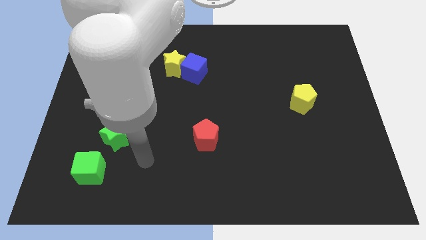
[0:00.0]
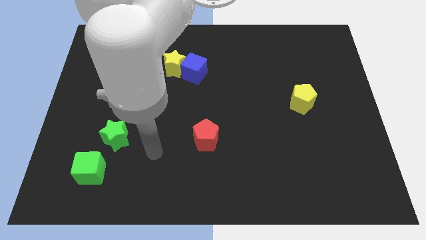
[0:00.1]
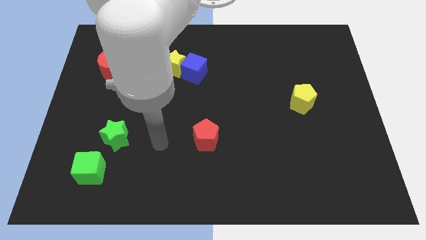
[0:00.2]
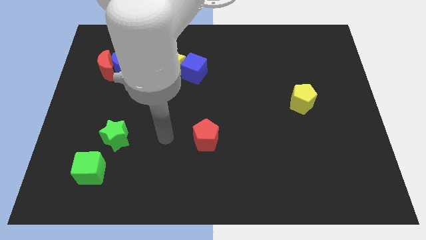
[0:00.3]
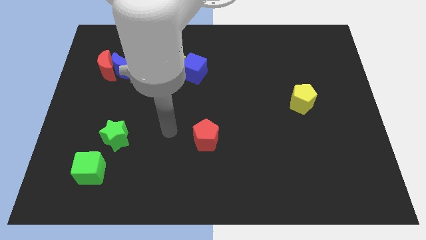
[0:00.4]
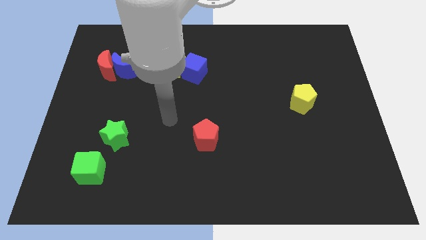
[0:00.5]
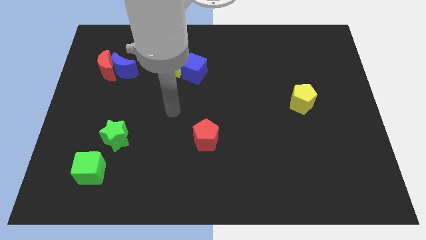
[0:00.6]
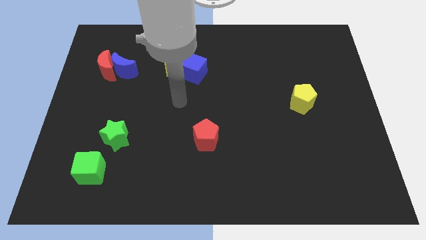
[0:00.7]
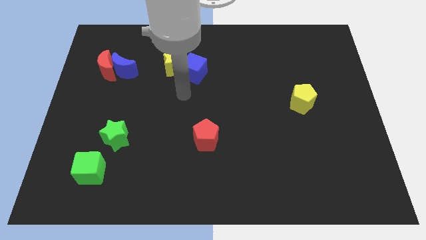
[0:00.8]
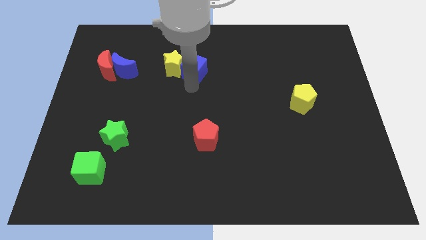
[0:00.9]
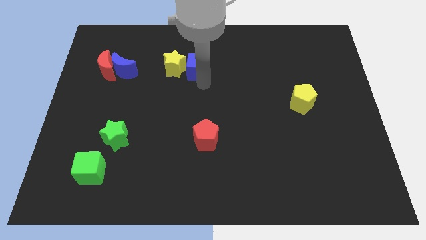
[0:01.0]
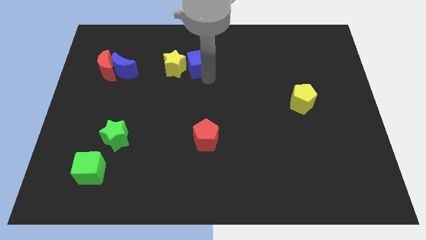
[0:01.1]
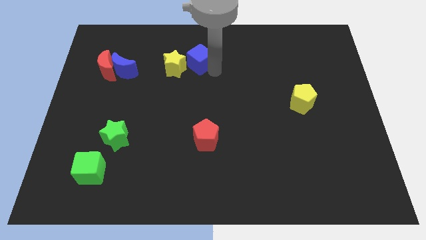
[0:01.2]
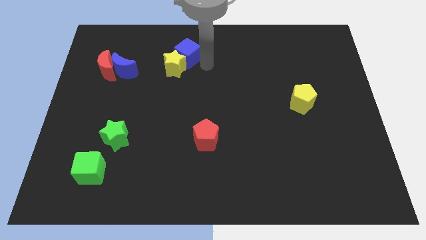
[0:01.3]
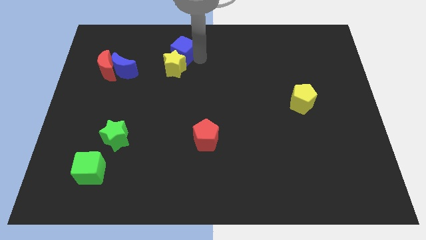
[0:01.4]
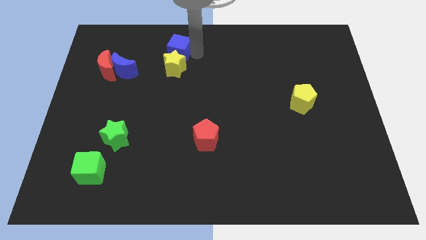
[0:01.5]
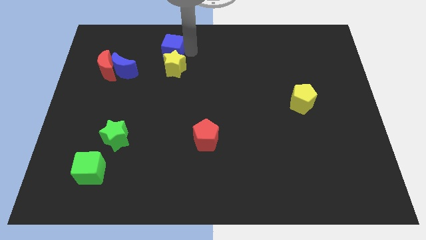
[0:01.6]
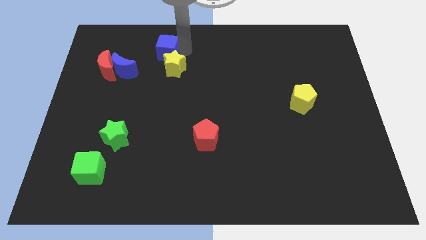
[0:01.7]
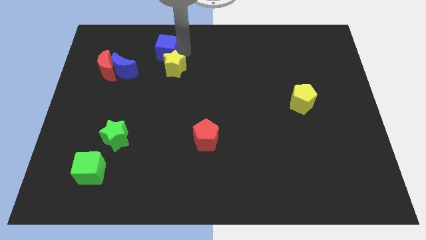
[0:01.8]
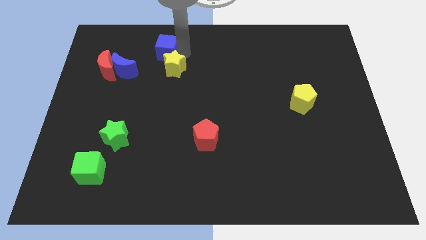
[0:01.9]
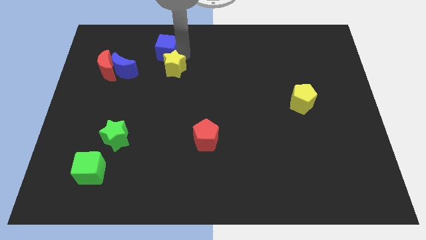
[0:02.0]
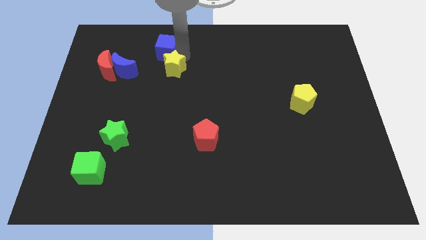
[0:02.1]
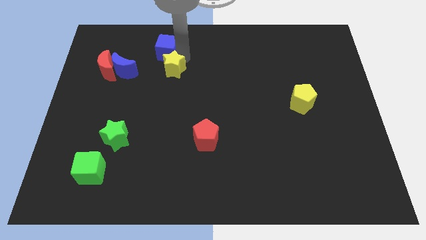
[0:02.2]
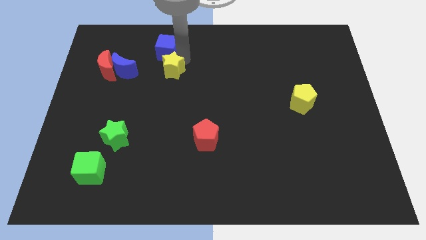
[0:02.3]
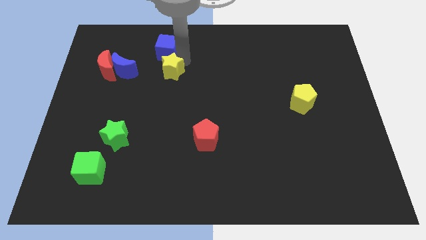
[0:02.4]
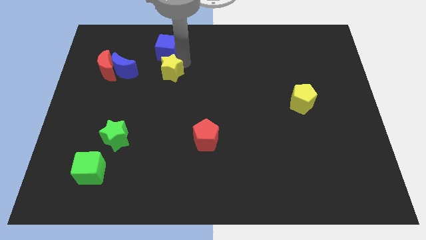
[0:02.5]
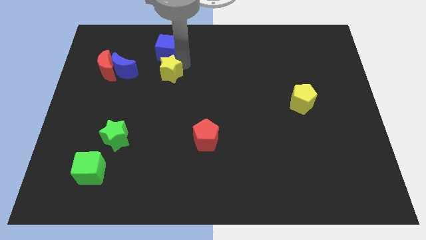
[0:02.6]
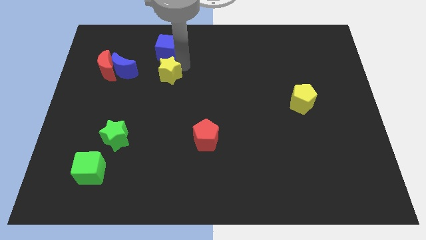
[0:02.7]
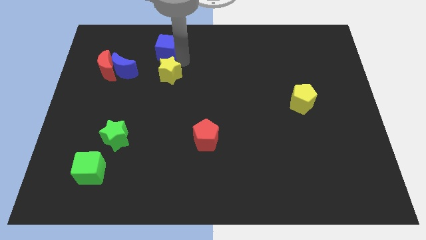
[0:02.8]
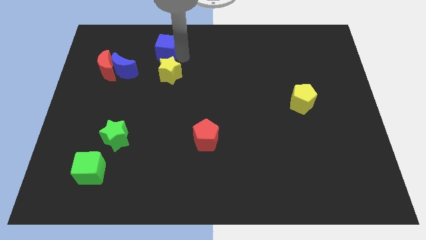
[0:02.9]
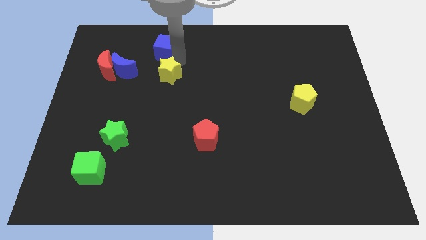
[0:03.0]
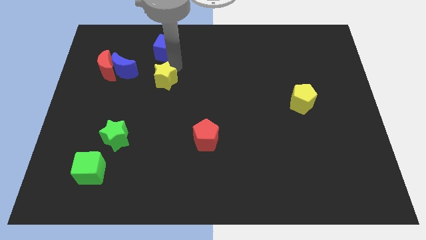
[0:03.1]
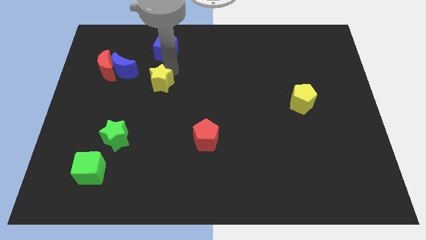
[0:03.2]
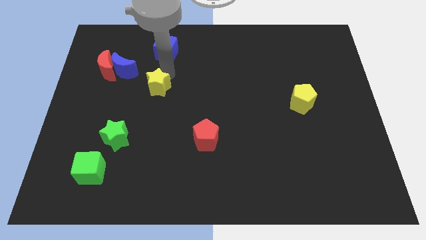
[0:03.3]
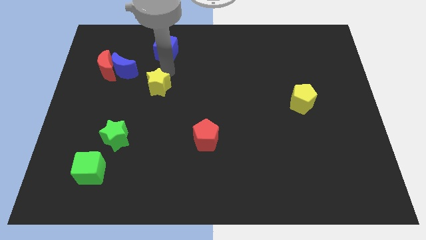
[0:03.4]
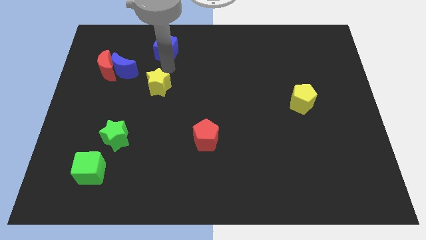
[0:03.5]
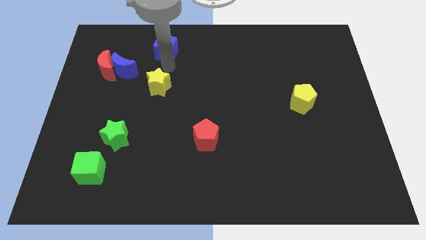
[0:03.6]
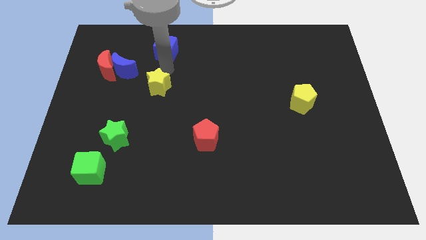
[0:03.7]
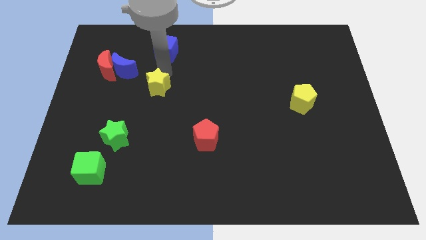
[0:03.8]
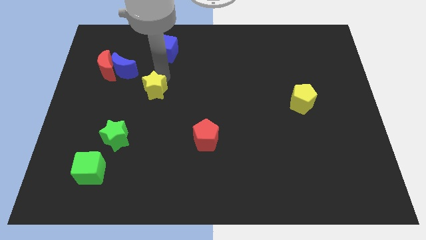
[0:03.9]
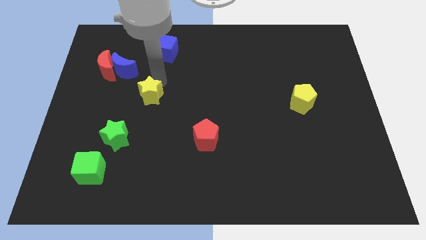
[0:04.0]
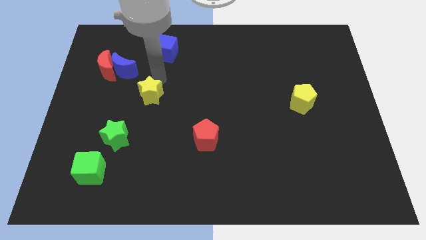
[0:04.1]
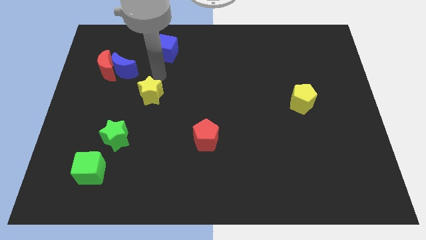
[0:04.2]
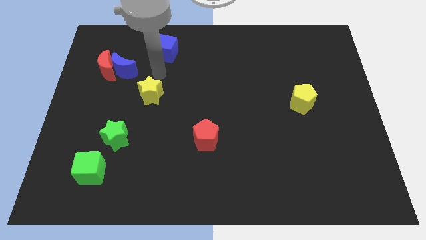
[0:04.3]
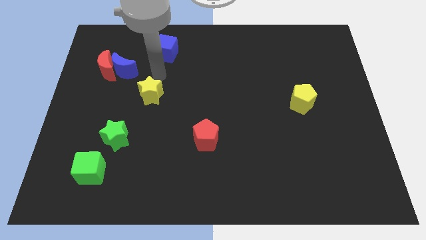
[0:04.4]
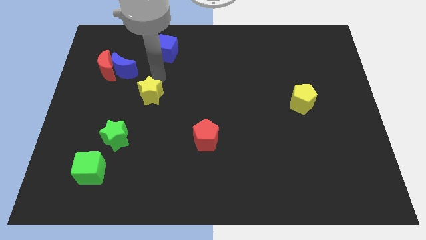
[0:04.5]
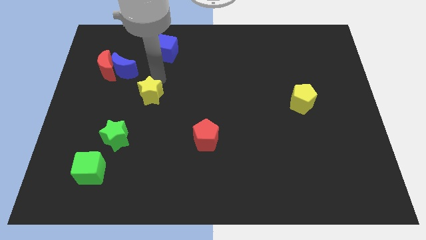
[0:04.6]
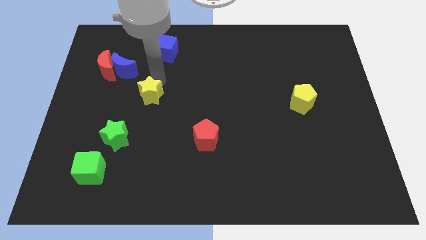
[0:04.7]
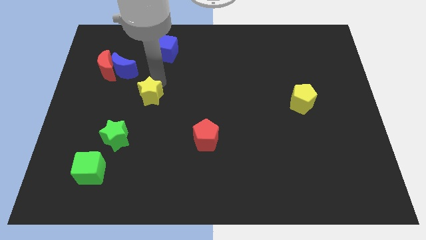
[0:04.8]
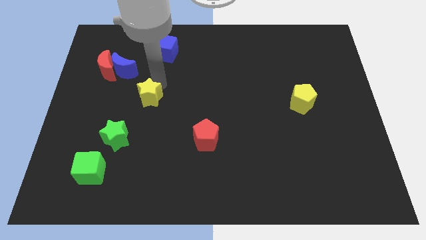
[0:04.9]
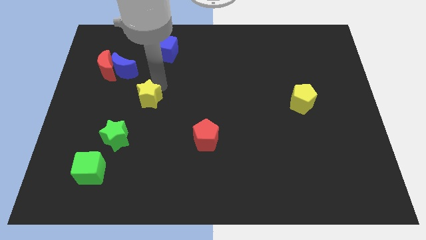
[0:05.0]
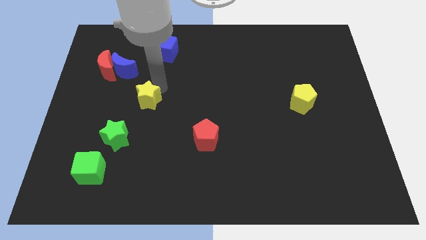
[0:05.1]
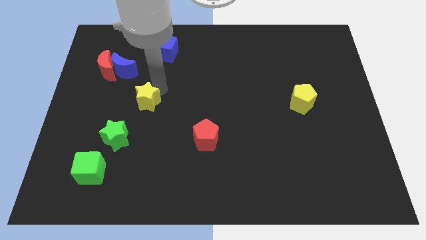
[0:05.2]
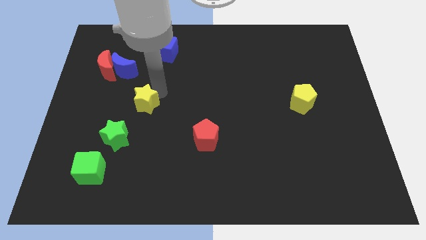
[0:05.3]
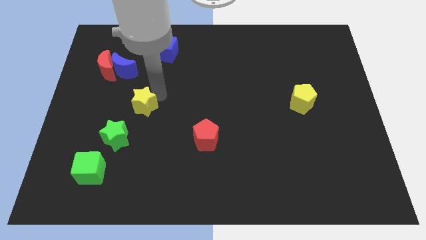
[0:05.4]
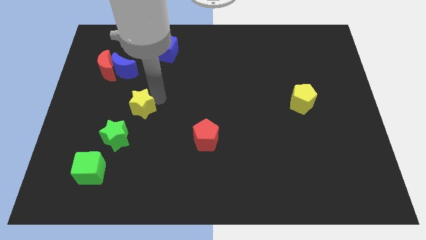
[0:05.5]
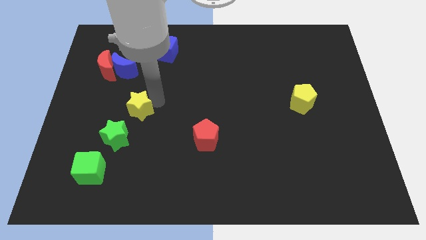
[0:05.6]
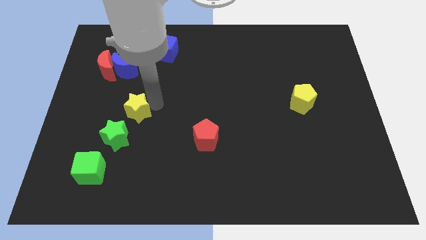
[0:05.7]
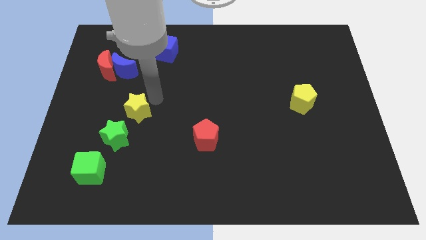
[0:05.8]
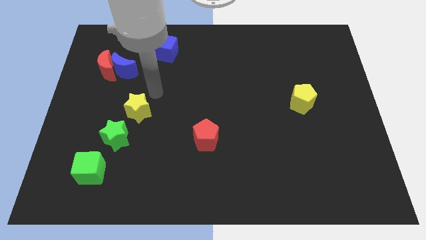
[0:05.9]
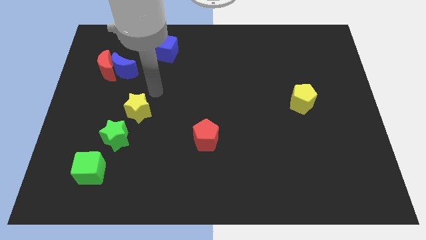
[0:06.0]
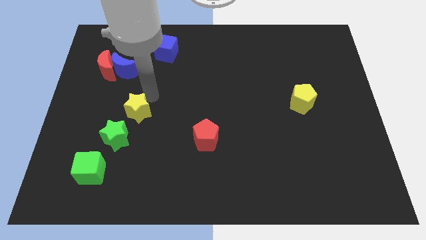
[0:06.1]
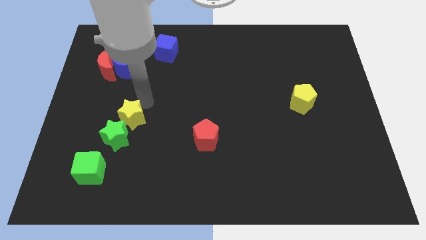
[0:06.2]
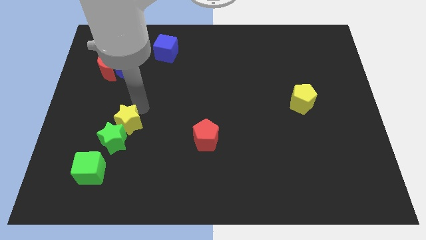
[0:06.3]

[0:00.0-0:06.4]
move the yellow star close to the green star

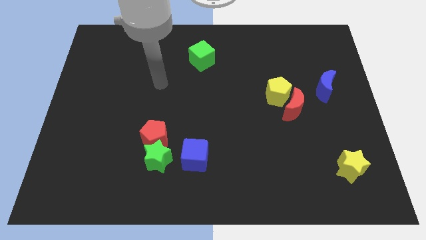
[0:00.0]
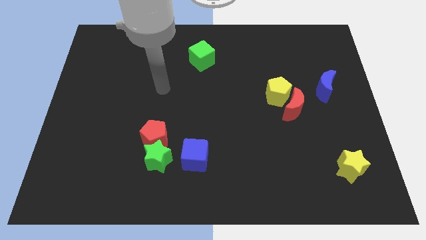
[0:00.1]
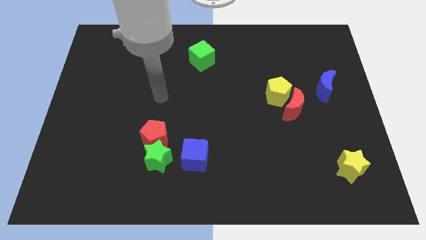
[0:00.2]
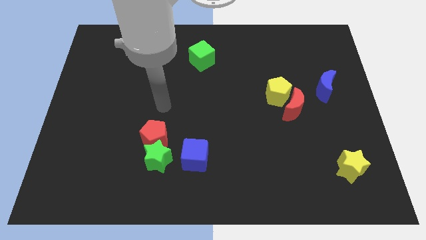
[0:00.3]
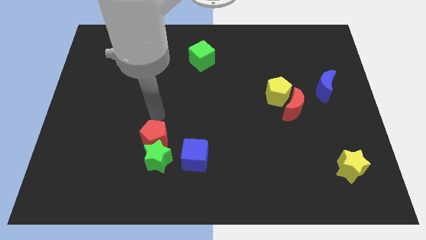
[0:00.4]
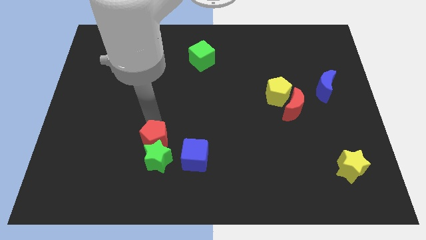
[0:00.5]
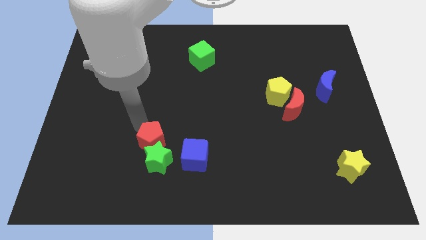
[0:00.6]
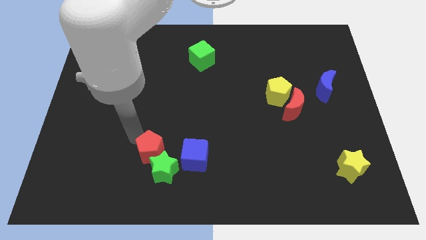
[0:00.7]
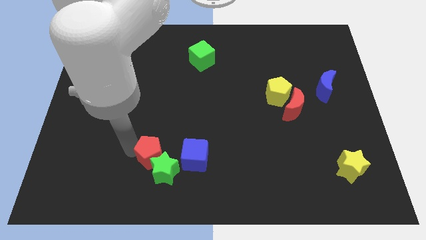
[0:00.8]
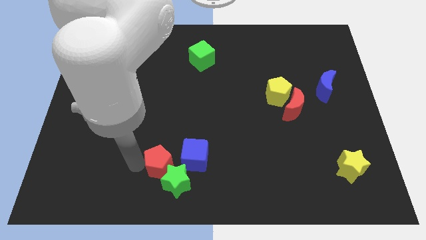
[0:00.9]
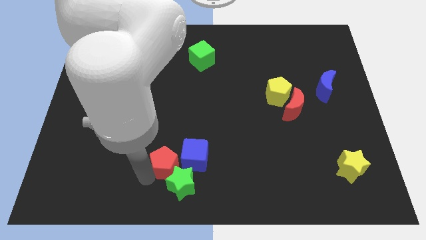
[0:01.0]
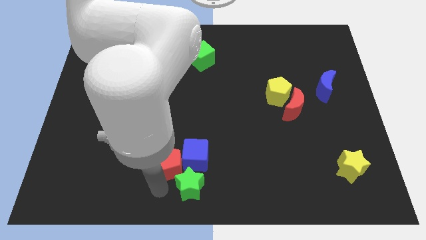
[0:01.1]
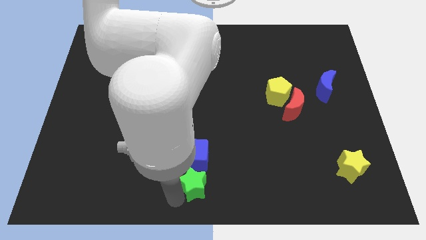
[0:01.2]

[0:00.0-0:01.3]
move the green star to the blue cube

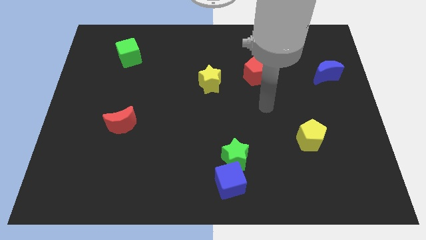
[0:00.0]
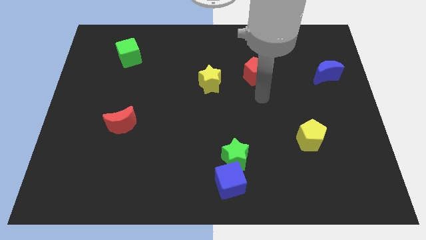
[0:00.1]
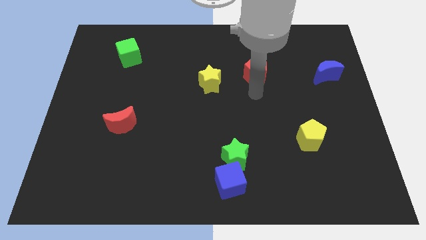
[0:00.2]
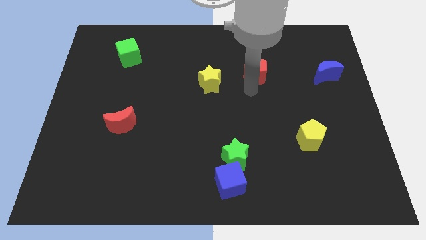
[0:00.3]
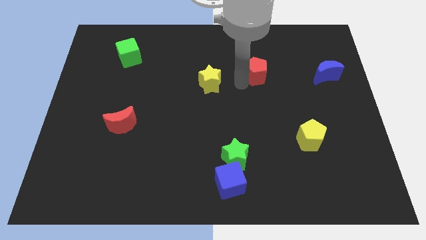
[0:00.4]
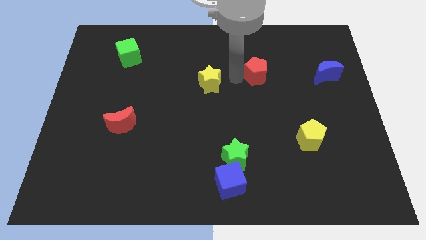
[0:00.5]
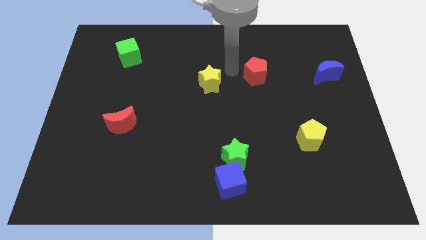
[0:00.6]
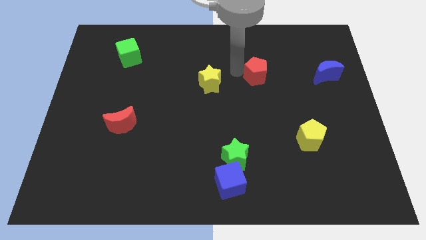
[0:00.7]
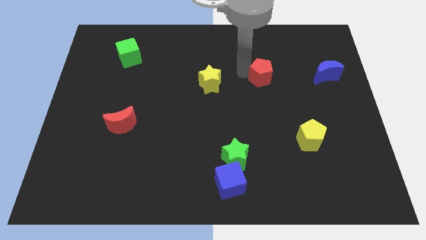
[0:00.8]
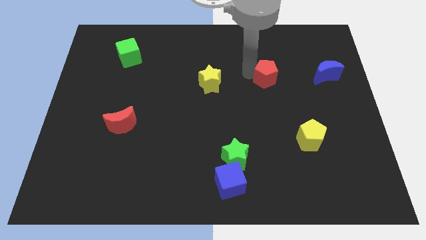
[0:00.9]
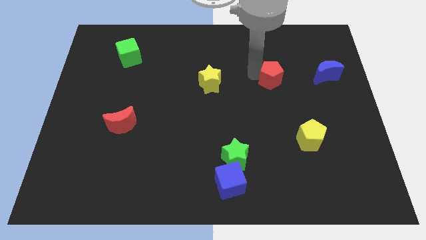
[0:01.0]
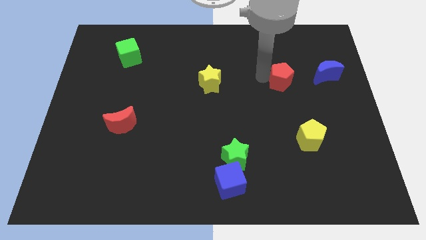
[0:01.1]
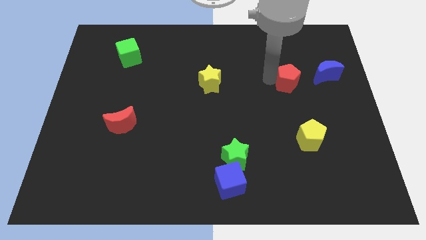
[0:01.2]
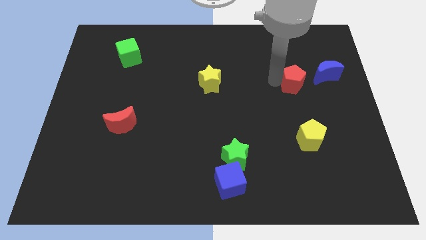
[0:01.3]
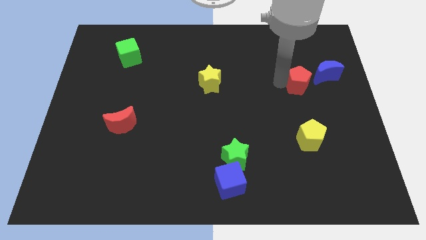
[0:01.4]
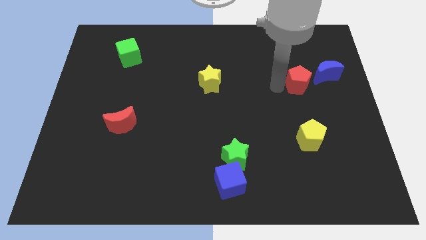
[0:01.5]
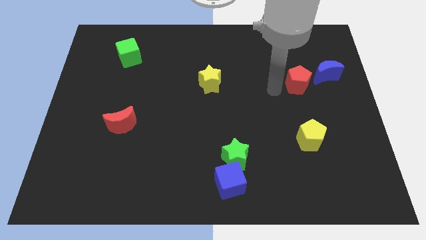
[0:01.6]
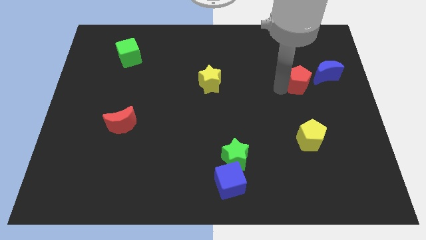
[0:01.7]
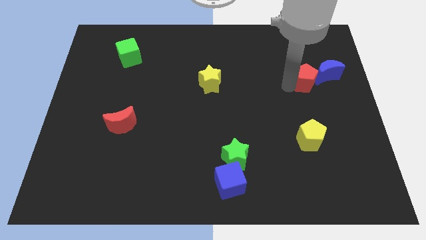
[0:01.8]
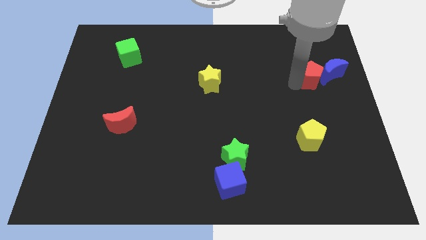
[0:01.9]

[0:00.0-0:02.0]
move the red pentagon towards the blue moon
